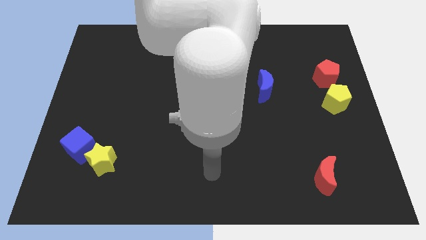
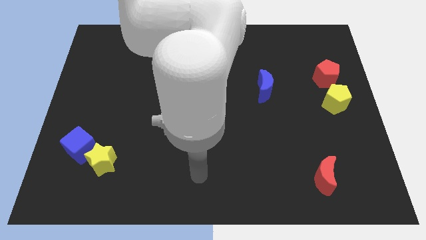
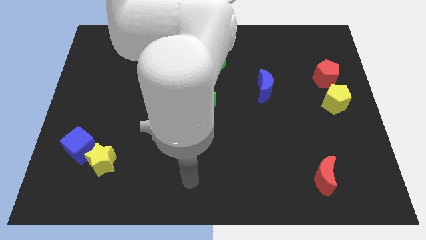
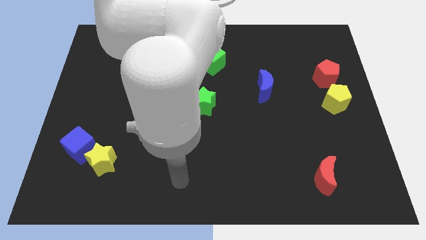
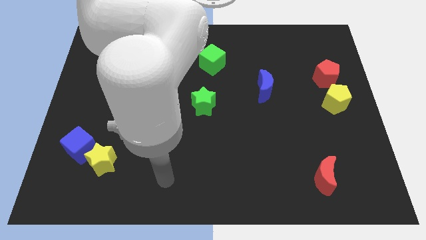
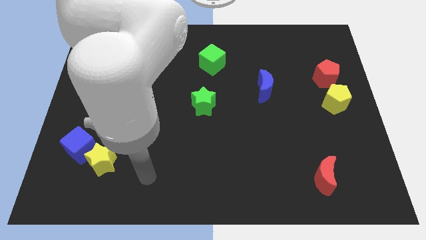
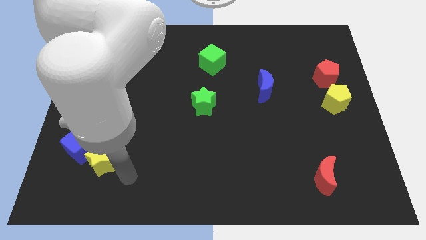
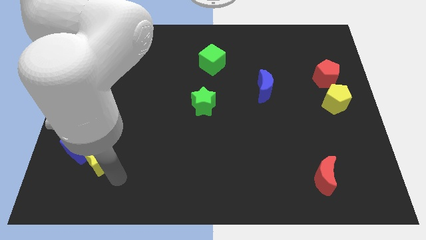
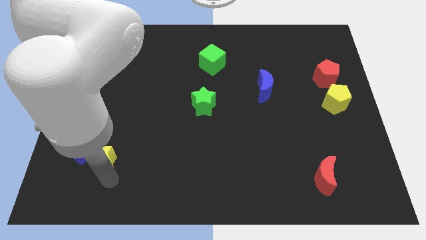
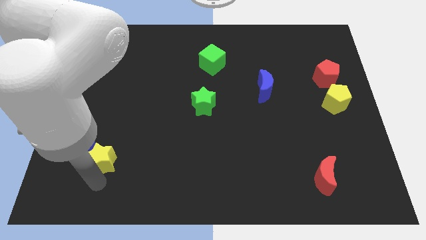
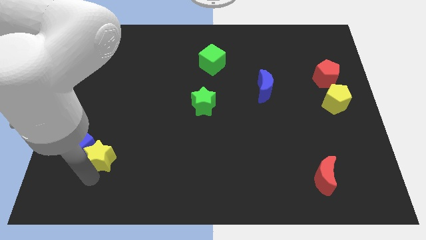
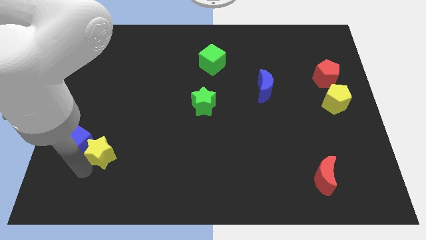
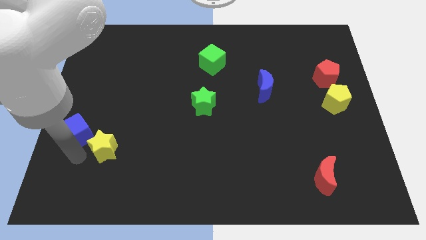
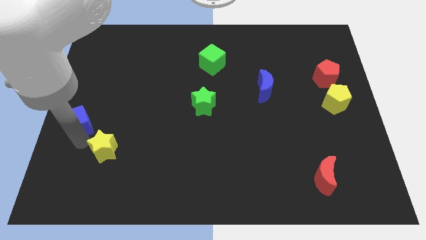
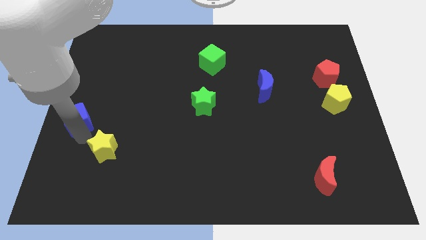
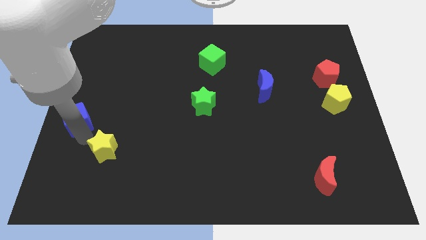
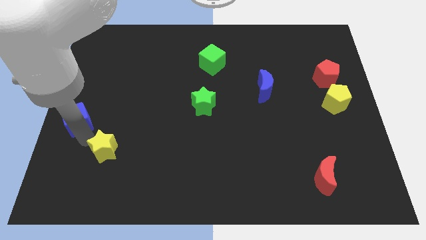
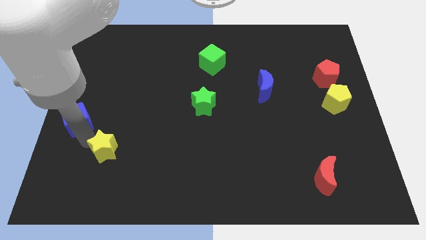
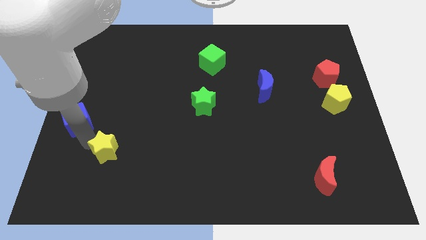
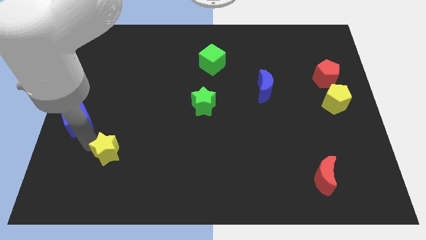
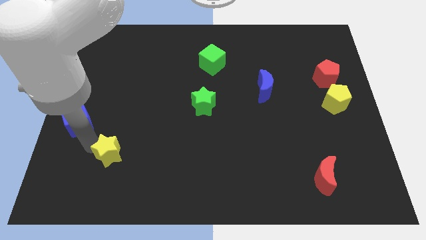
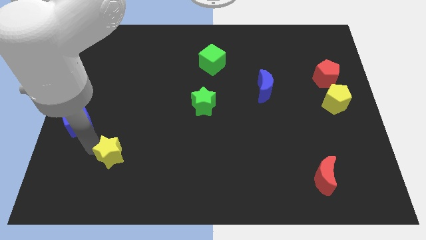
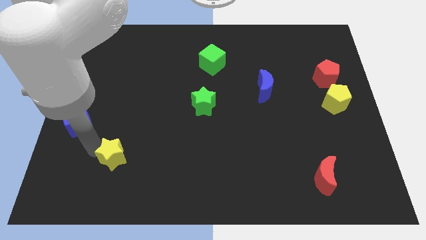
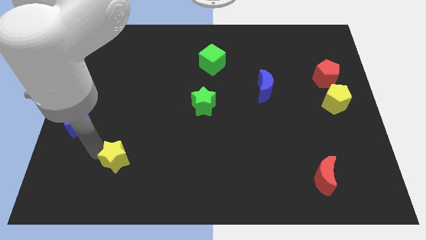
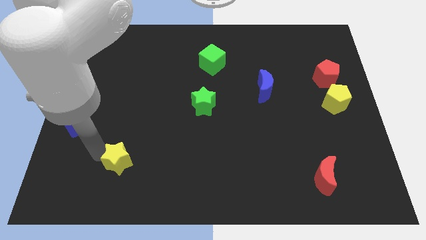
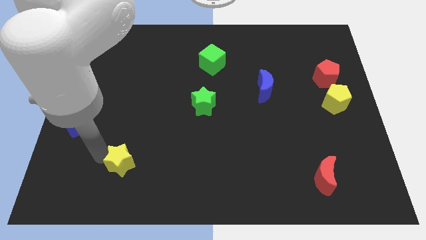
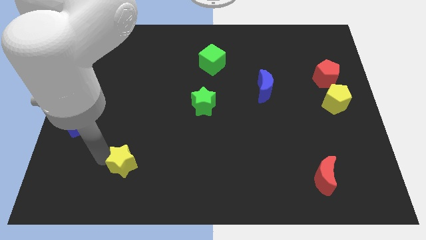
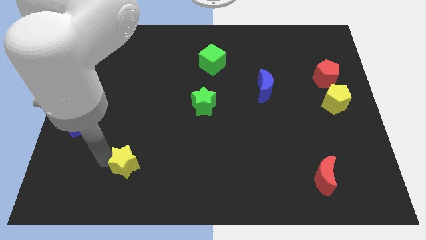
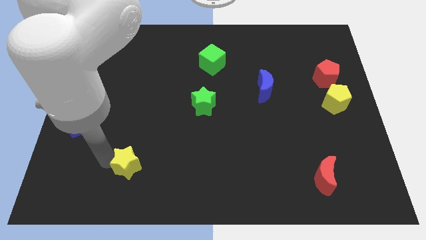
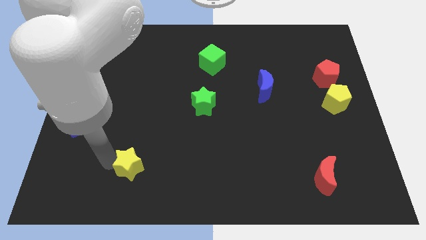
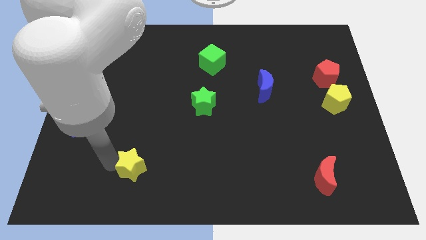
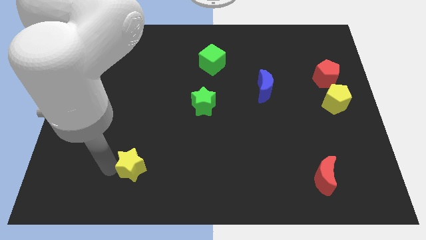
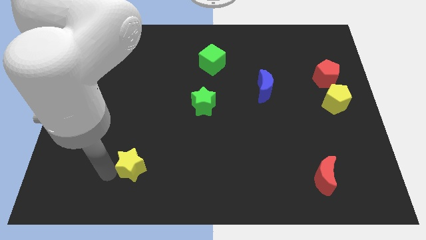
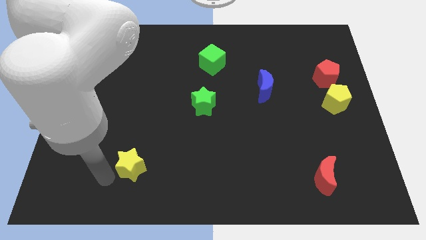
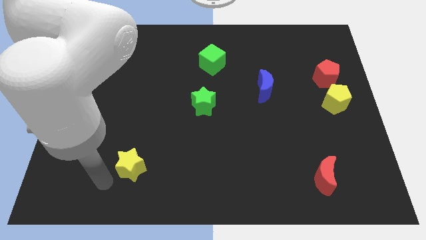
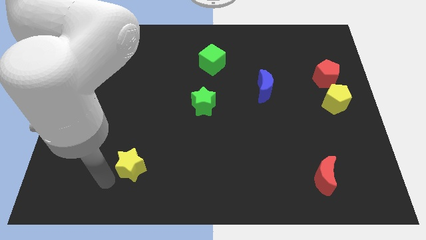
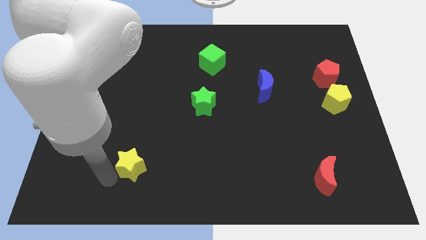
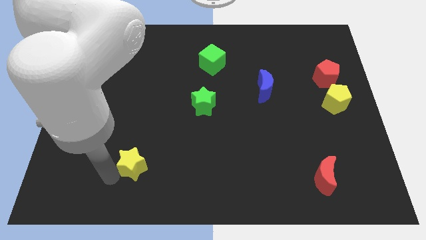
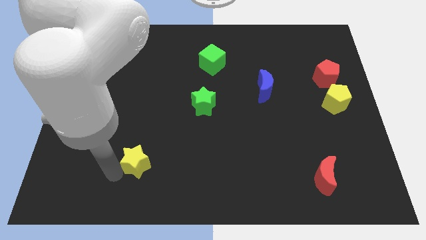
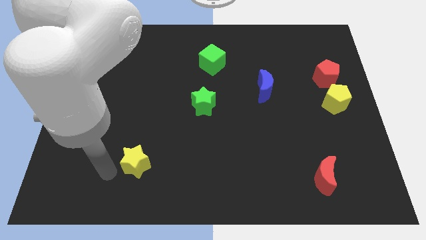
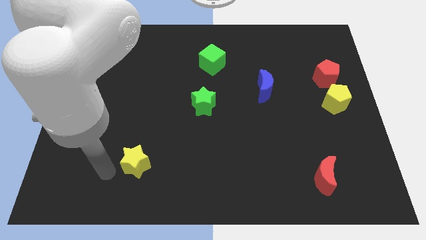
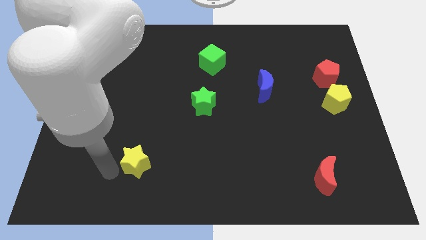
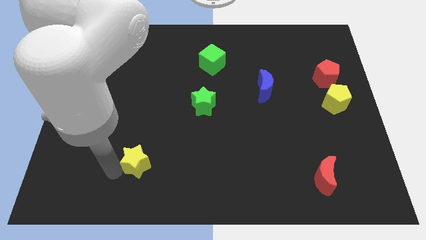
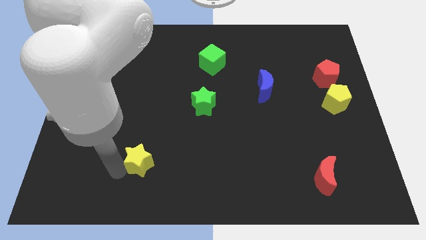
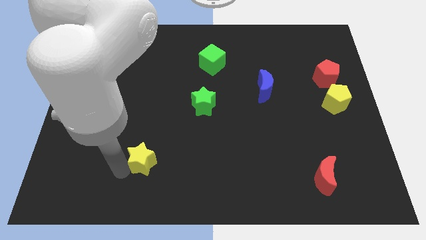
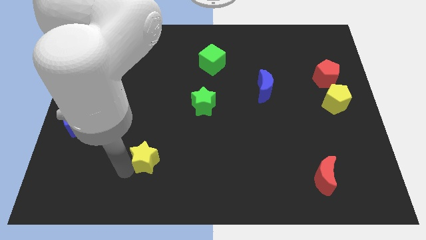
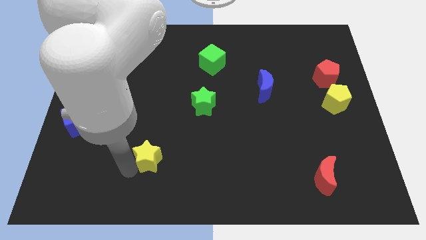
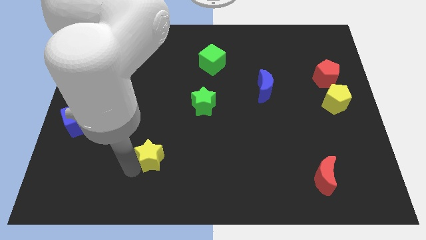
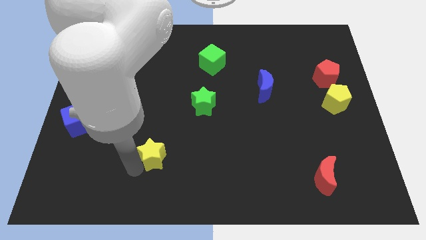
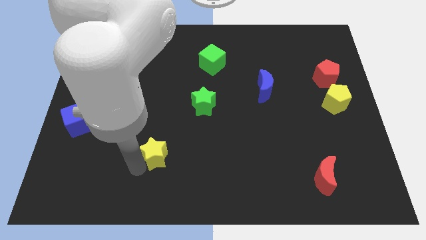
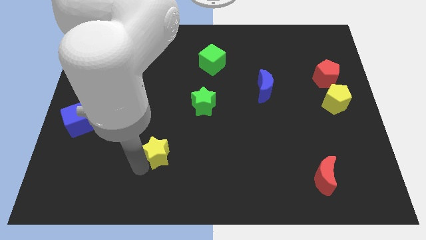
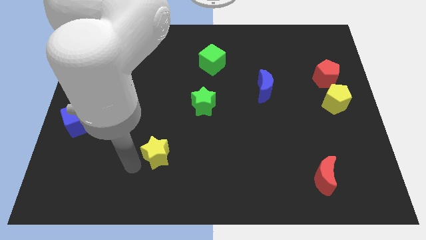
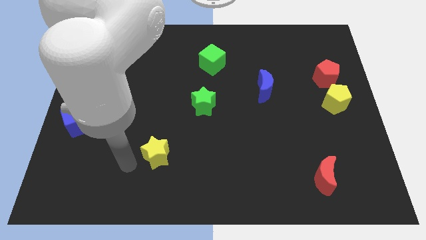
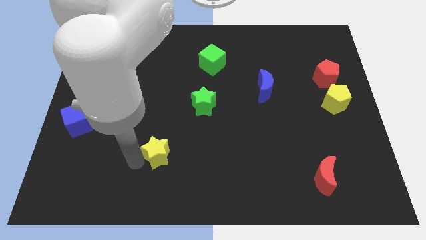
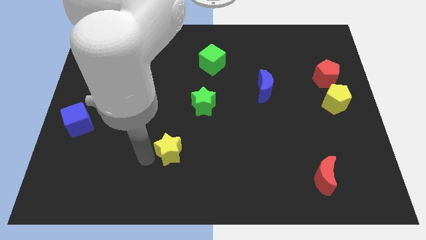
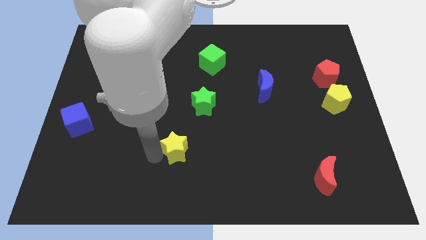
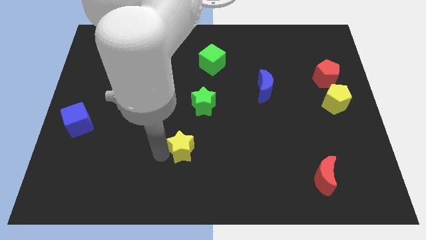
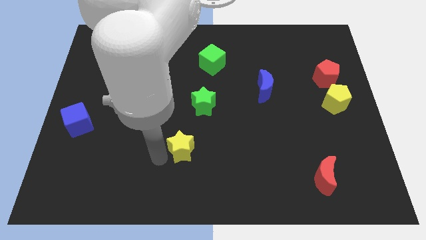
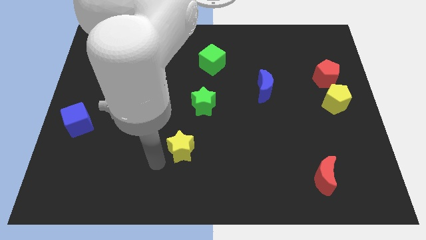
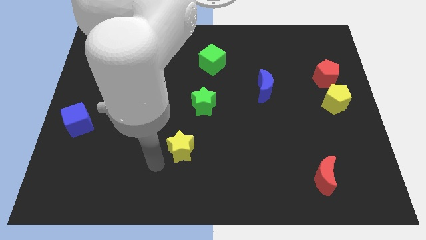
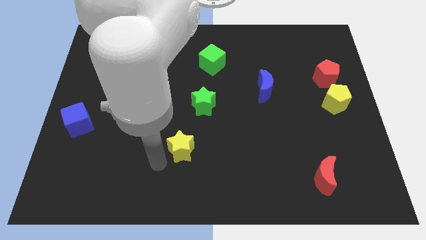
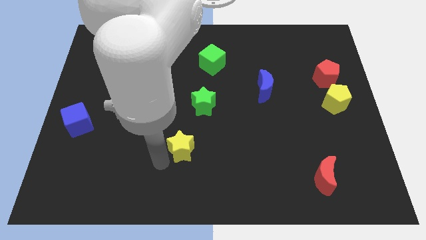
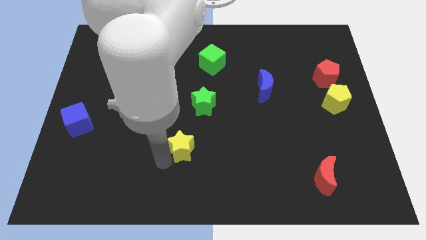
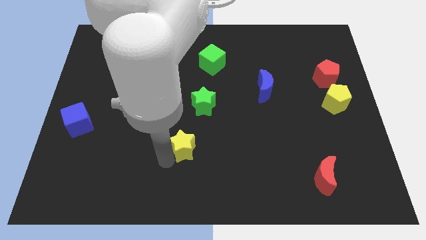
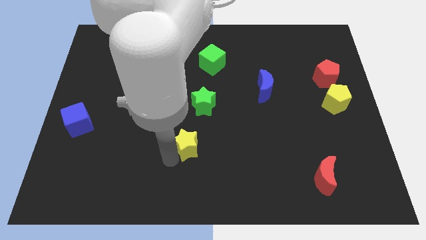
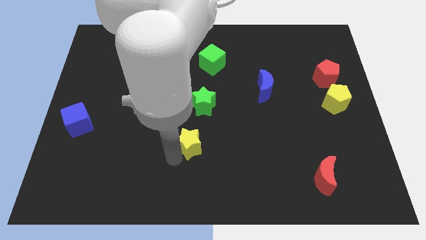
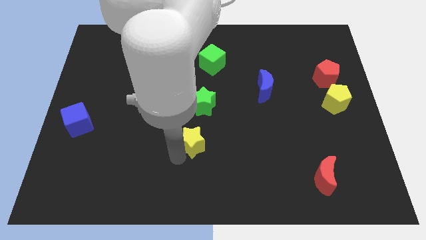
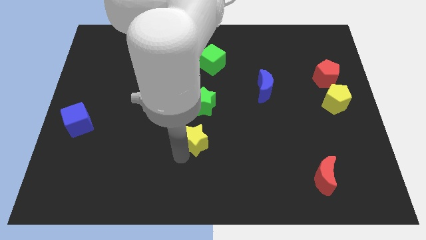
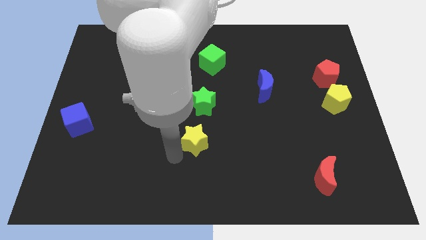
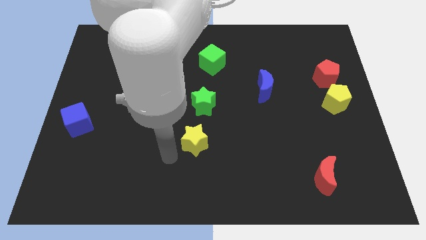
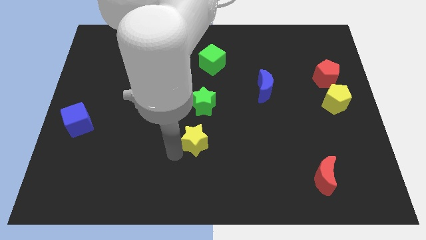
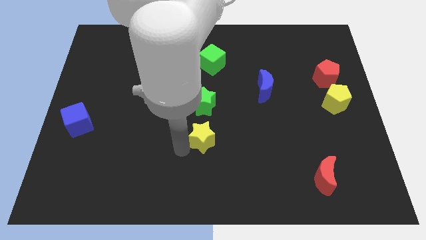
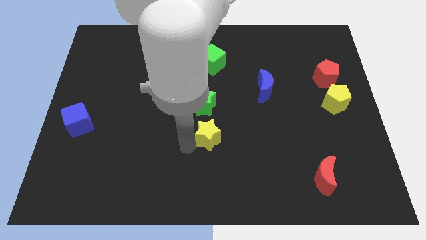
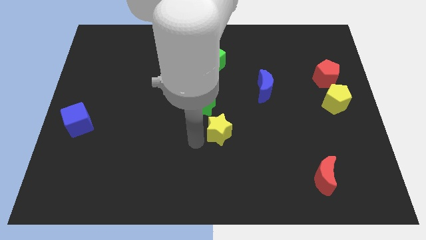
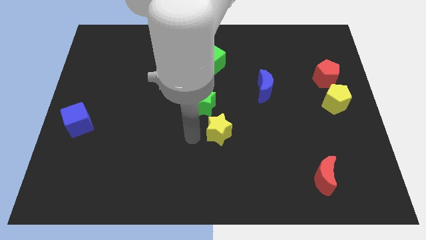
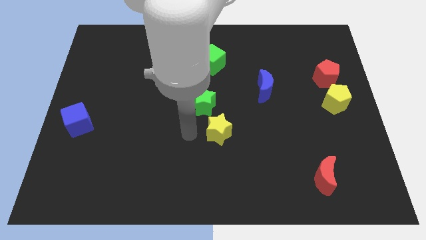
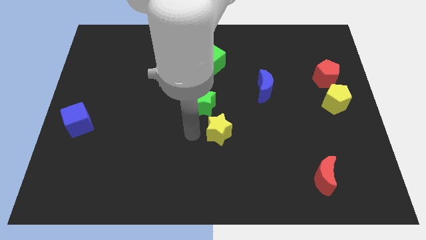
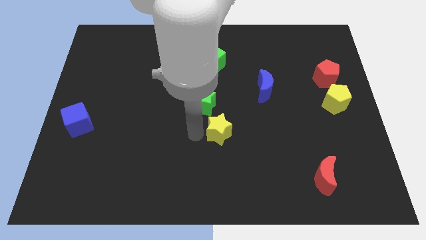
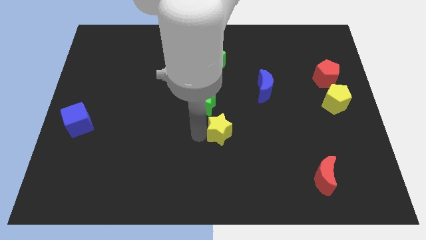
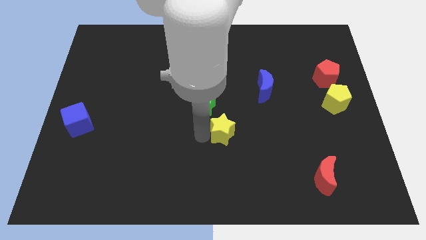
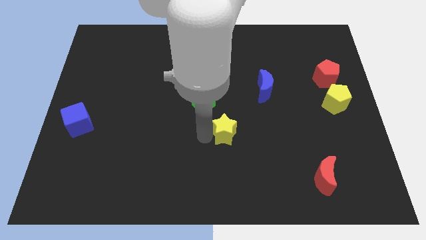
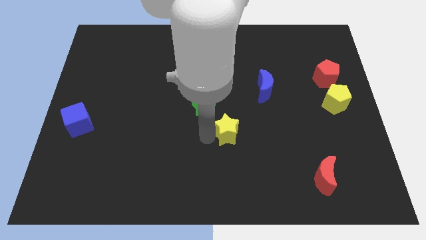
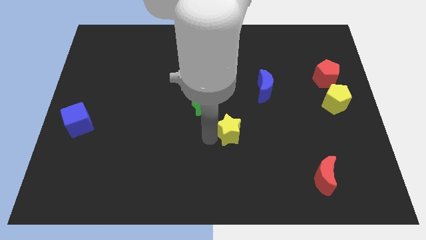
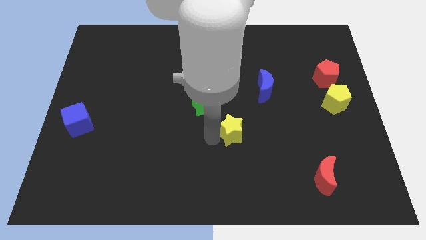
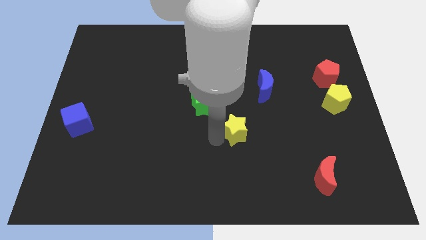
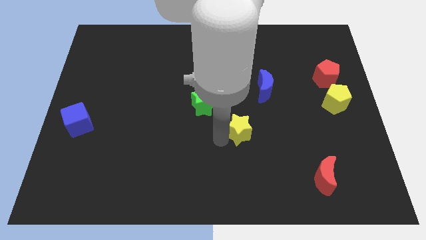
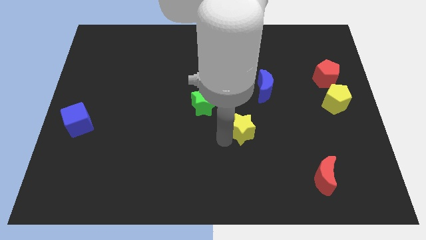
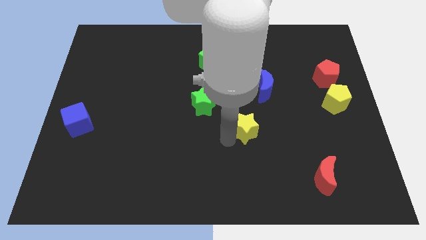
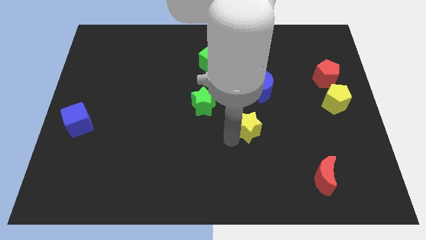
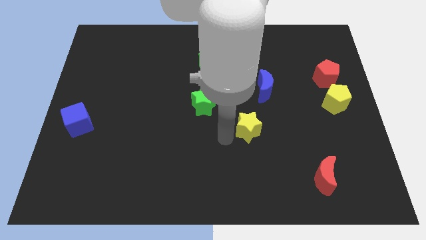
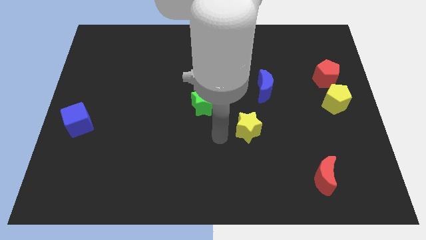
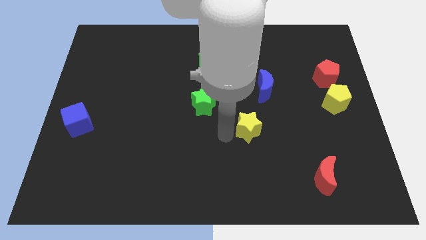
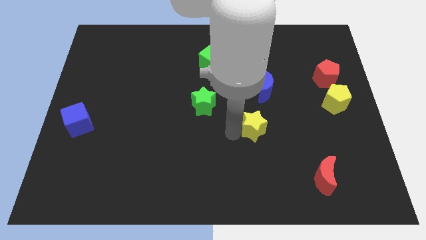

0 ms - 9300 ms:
slide the yellow star to the bottom side of the blue moon
